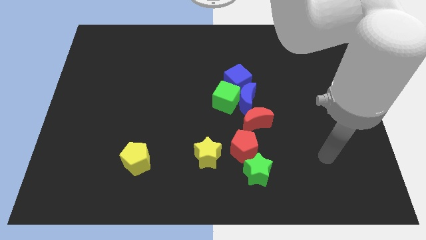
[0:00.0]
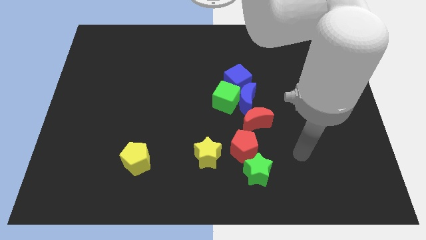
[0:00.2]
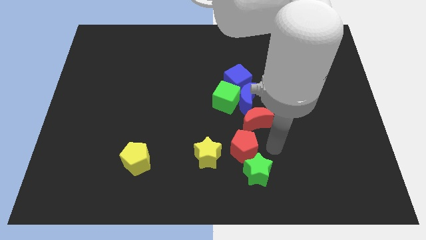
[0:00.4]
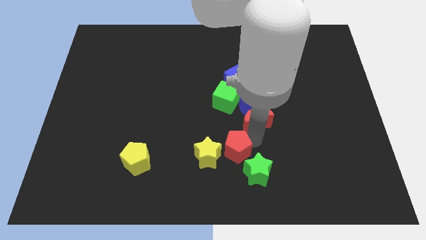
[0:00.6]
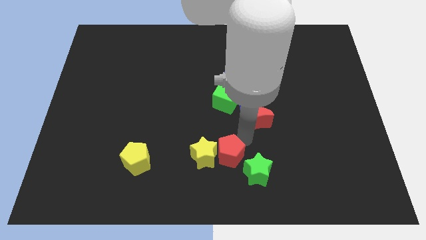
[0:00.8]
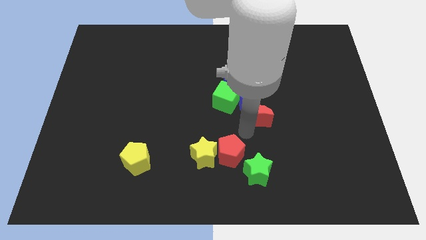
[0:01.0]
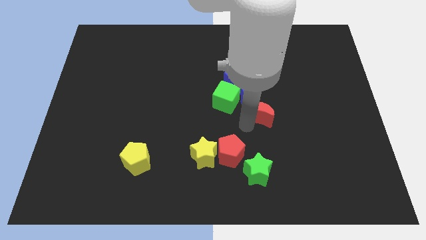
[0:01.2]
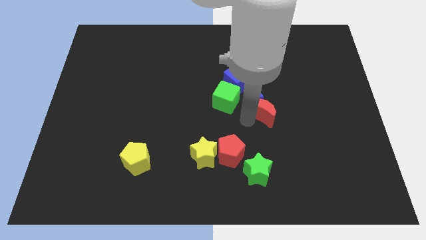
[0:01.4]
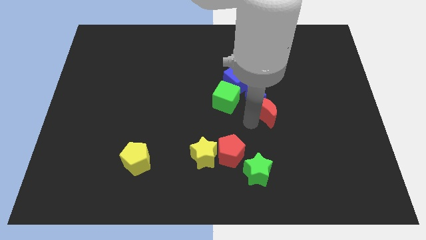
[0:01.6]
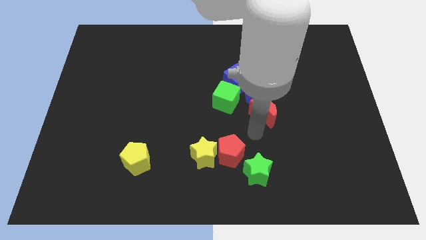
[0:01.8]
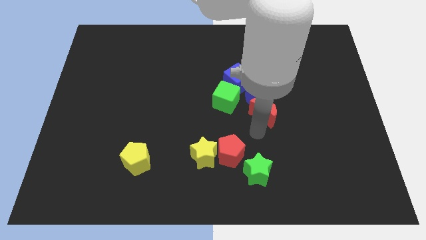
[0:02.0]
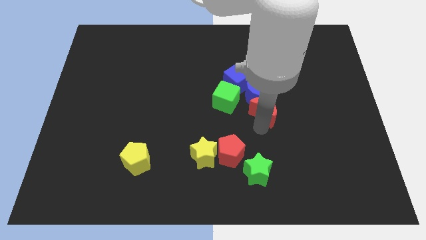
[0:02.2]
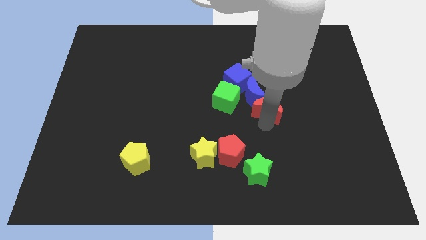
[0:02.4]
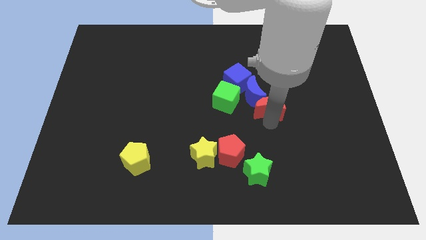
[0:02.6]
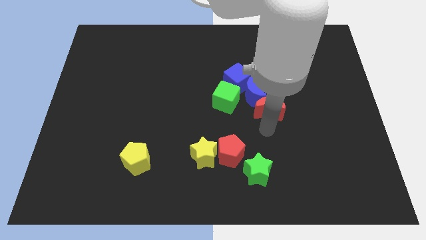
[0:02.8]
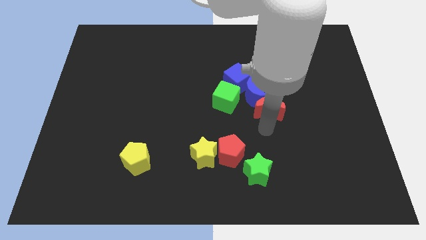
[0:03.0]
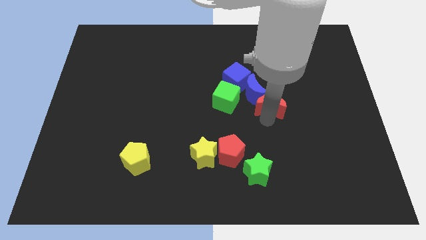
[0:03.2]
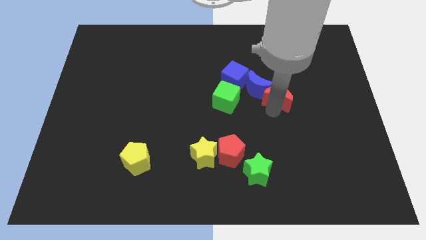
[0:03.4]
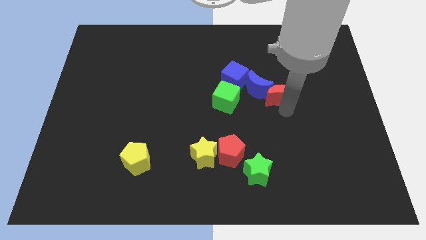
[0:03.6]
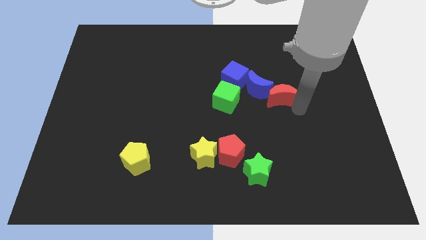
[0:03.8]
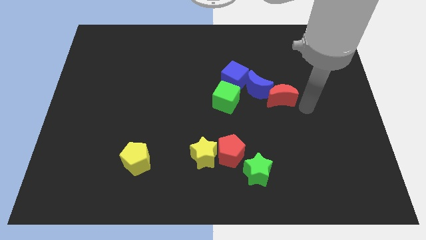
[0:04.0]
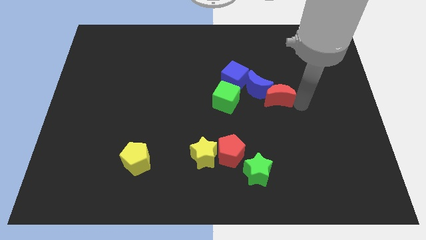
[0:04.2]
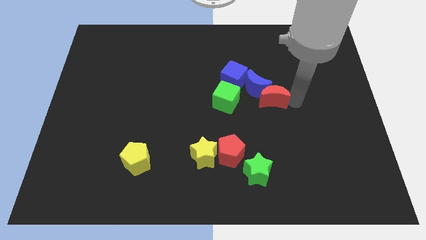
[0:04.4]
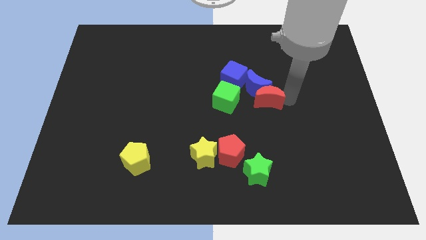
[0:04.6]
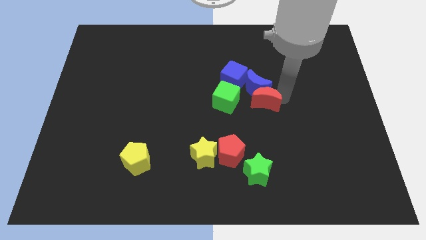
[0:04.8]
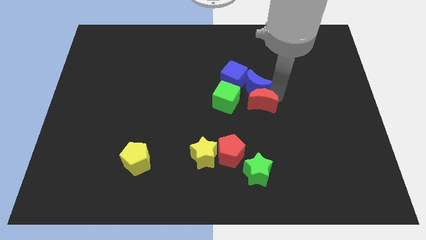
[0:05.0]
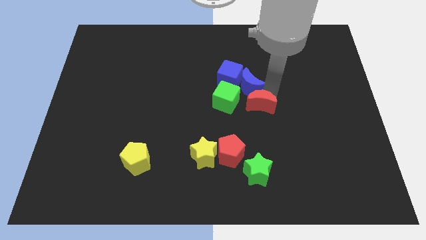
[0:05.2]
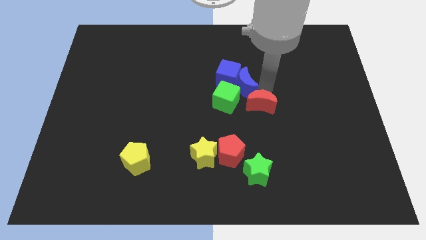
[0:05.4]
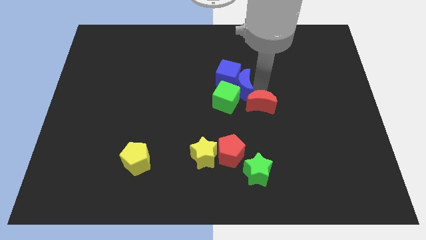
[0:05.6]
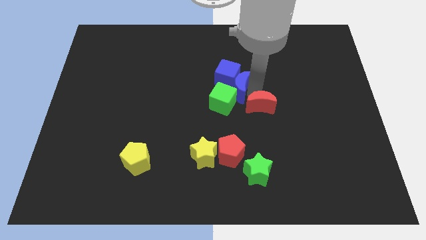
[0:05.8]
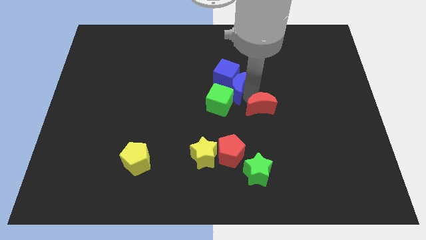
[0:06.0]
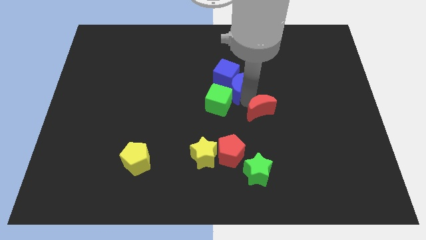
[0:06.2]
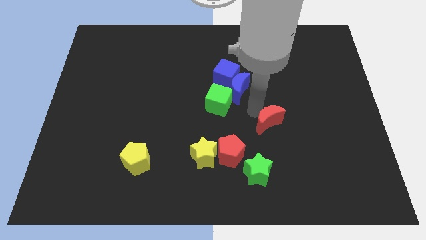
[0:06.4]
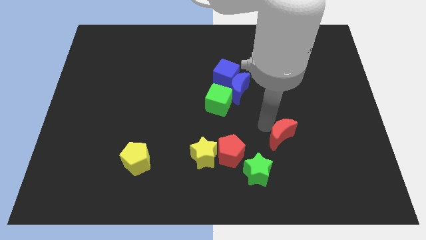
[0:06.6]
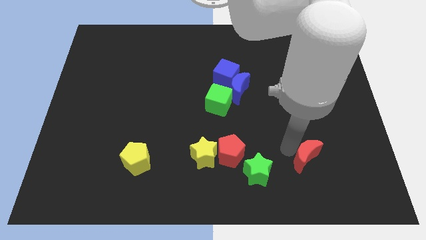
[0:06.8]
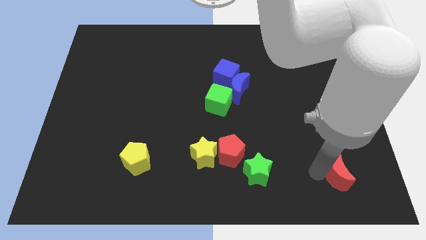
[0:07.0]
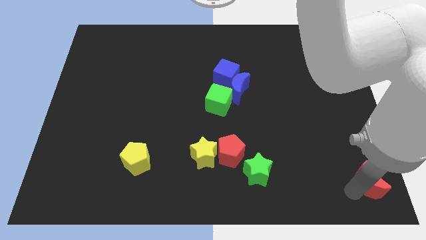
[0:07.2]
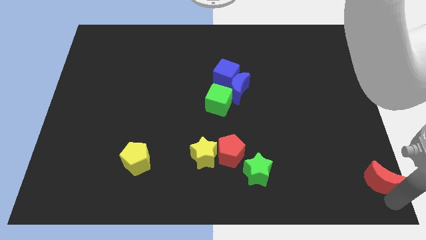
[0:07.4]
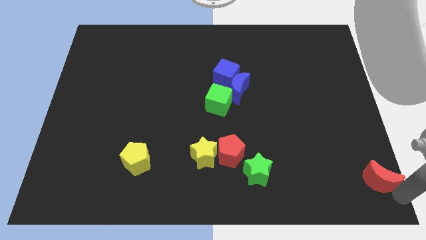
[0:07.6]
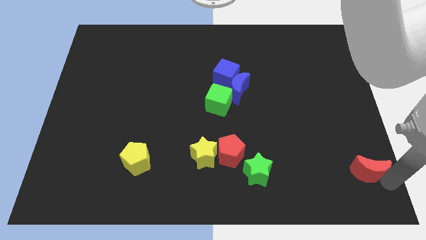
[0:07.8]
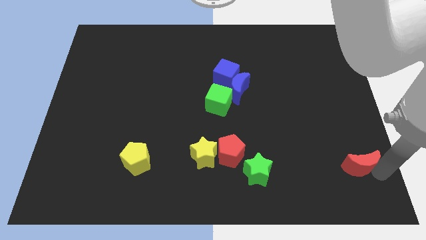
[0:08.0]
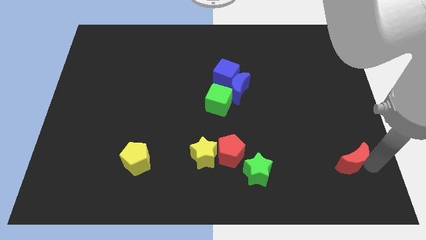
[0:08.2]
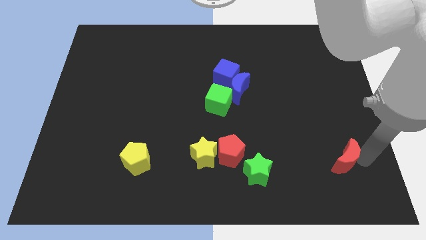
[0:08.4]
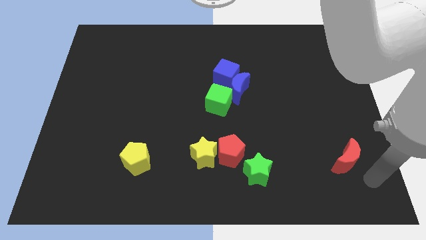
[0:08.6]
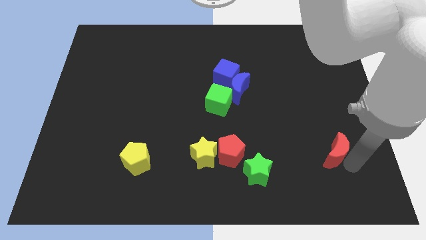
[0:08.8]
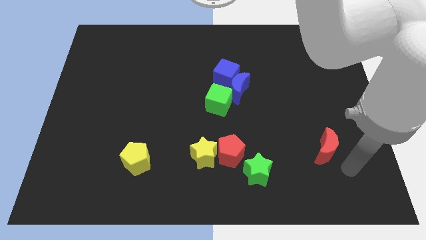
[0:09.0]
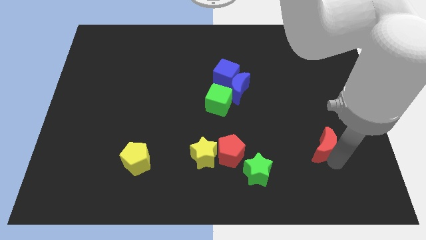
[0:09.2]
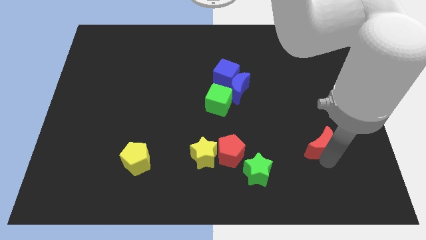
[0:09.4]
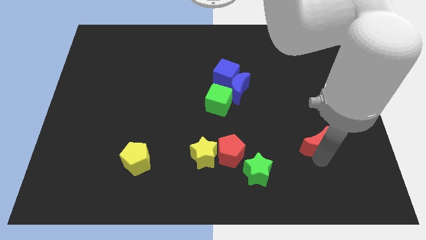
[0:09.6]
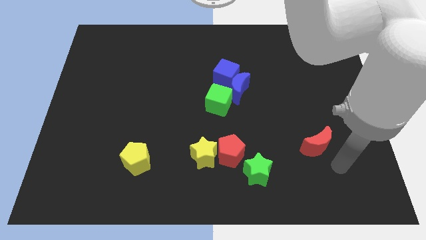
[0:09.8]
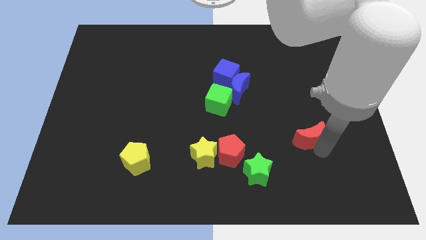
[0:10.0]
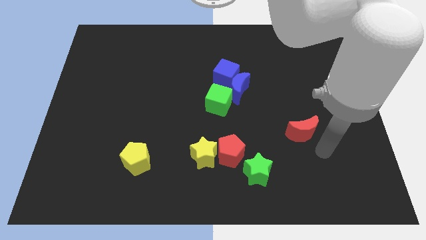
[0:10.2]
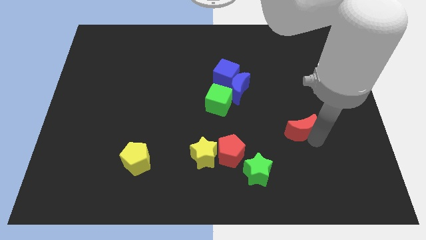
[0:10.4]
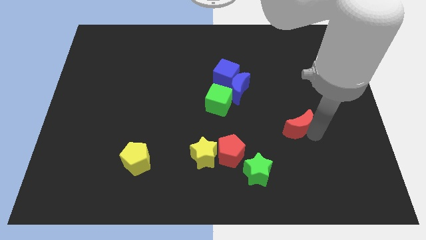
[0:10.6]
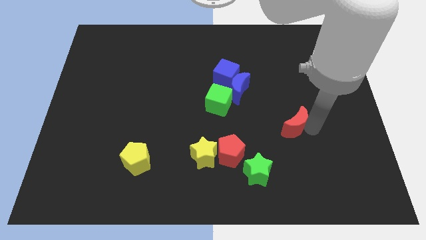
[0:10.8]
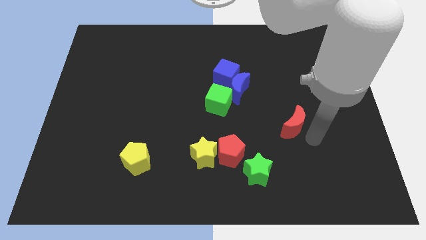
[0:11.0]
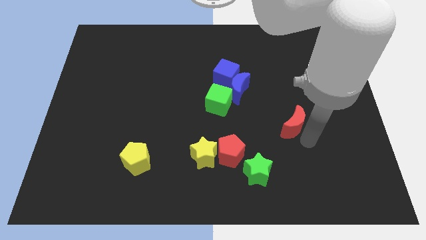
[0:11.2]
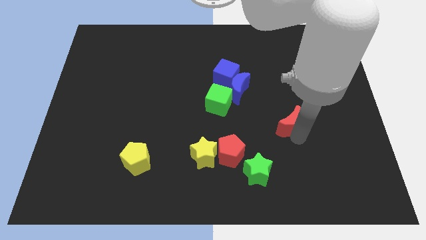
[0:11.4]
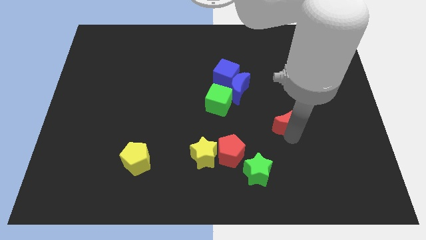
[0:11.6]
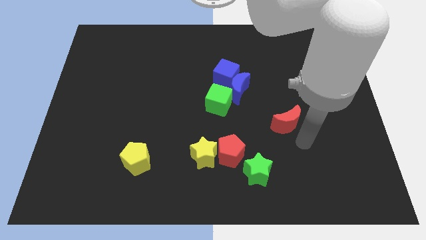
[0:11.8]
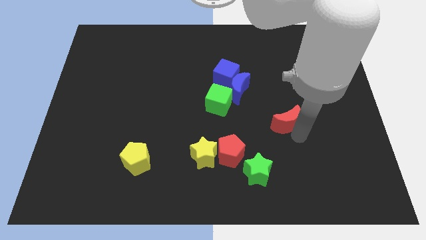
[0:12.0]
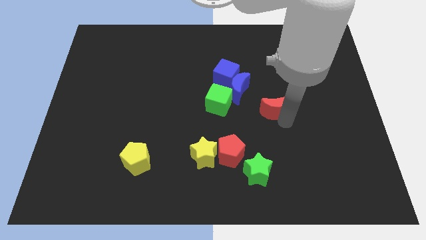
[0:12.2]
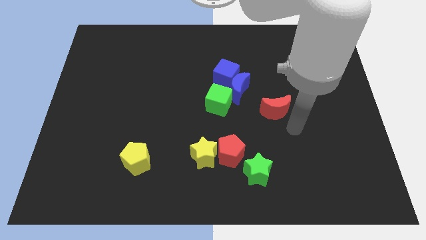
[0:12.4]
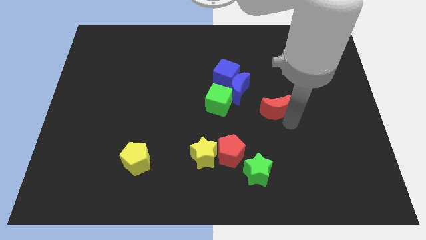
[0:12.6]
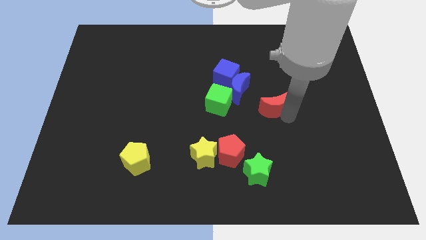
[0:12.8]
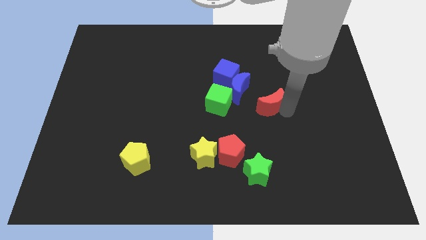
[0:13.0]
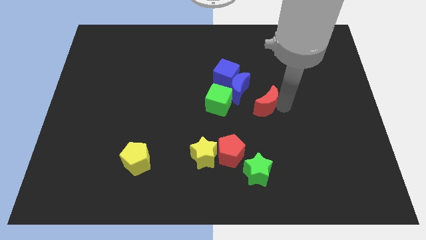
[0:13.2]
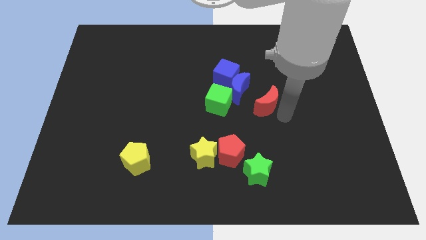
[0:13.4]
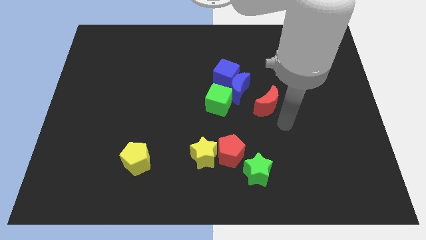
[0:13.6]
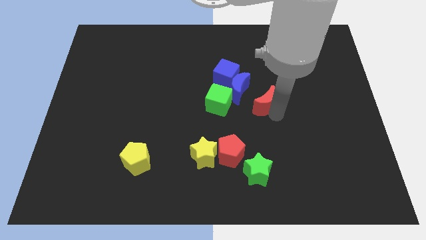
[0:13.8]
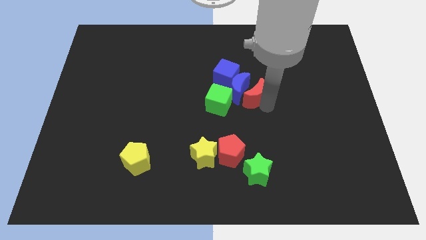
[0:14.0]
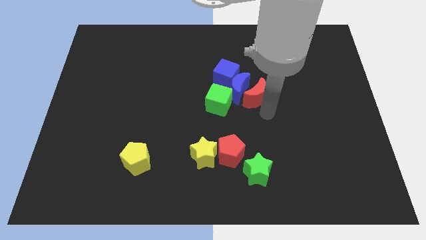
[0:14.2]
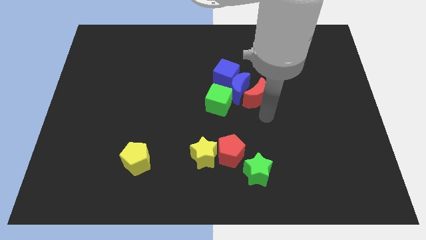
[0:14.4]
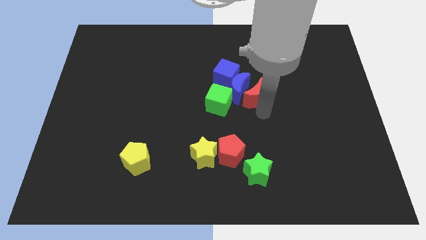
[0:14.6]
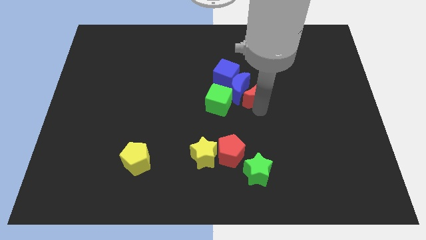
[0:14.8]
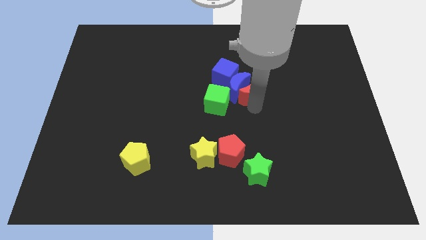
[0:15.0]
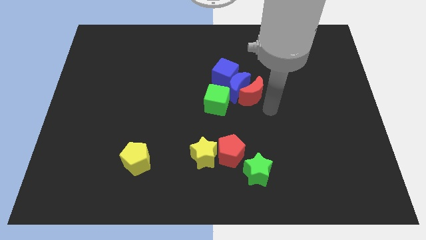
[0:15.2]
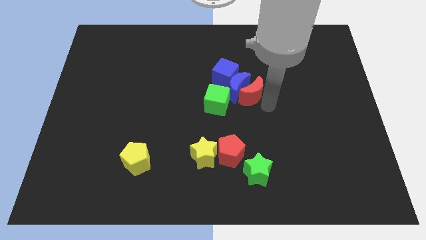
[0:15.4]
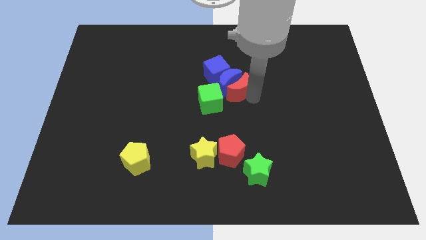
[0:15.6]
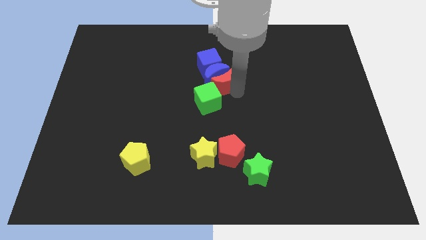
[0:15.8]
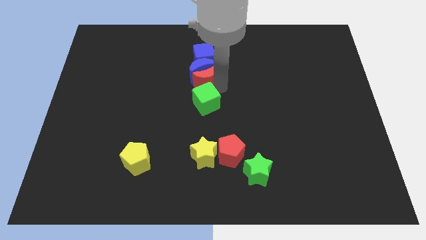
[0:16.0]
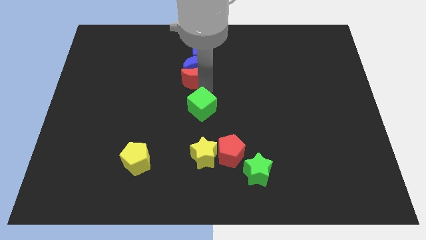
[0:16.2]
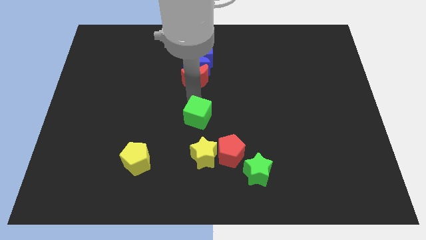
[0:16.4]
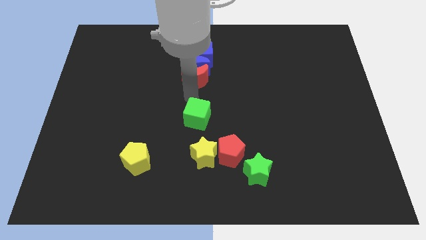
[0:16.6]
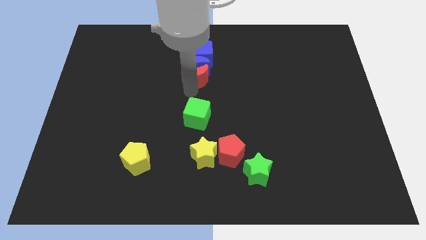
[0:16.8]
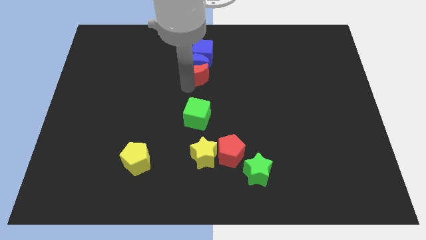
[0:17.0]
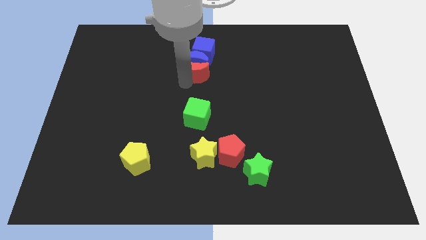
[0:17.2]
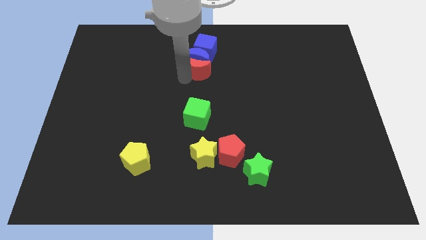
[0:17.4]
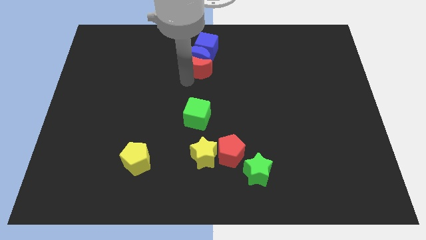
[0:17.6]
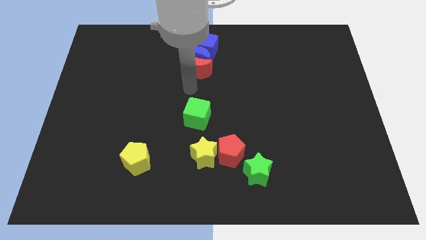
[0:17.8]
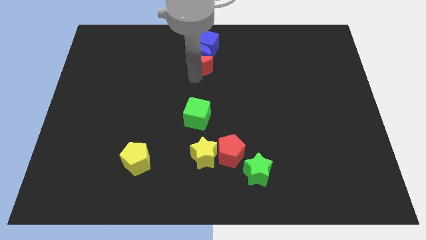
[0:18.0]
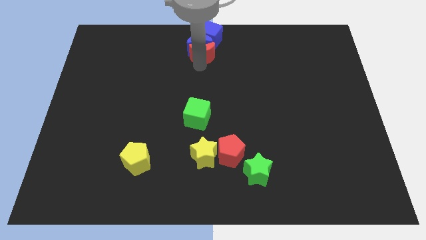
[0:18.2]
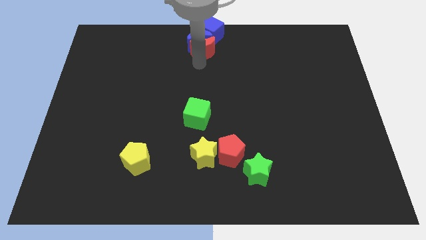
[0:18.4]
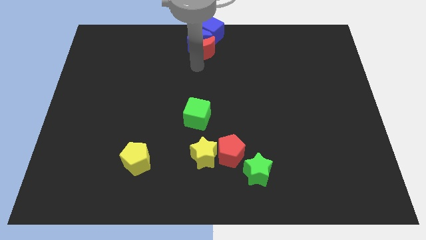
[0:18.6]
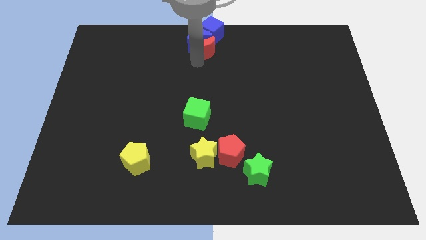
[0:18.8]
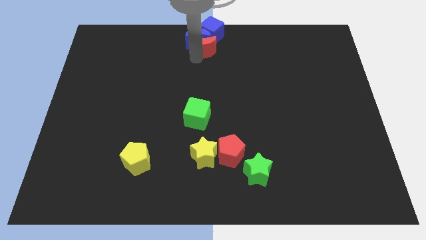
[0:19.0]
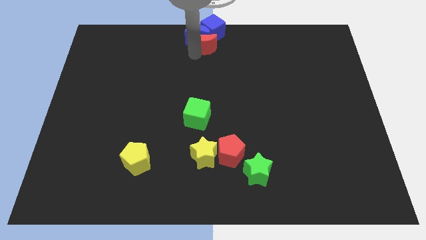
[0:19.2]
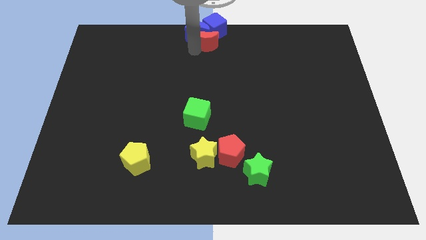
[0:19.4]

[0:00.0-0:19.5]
move the red moon towards the blue cube
